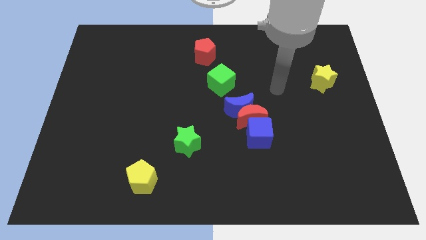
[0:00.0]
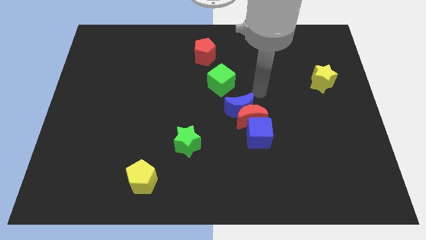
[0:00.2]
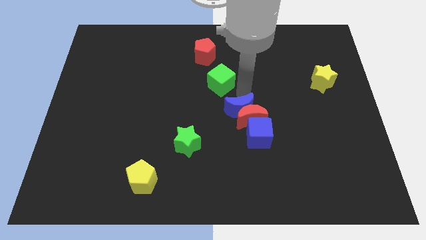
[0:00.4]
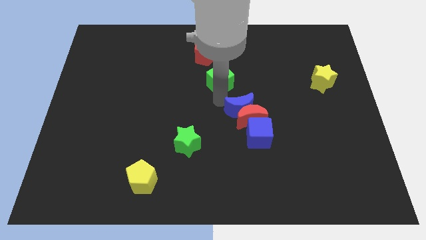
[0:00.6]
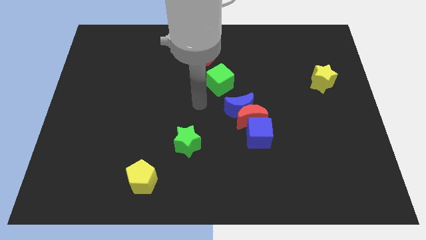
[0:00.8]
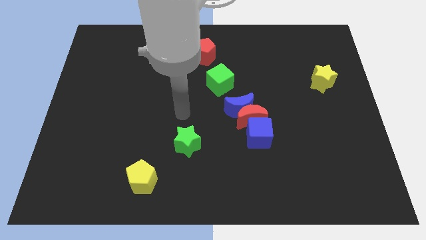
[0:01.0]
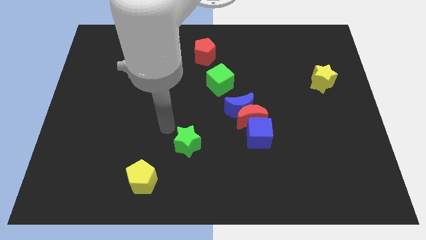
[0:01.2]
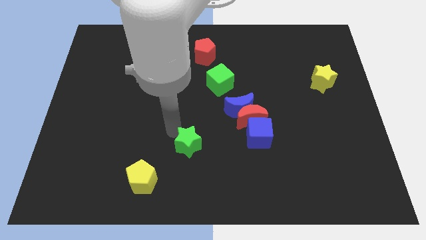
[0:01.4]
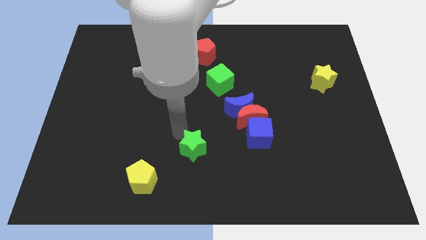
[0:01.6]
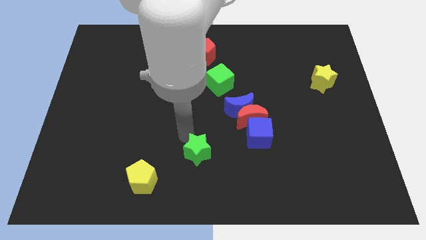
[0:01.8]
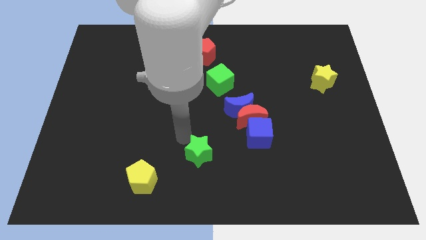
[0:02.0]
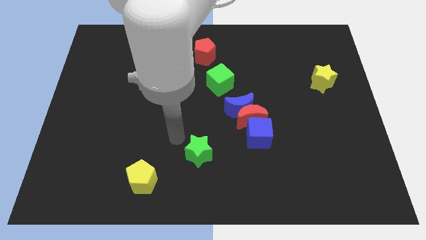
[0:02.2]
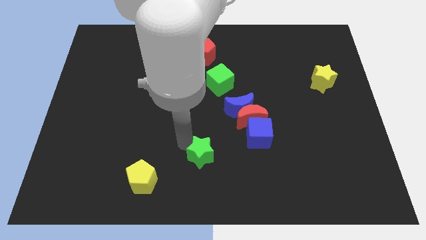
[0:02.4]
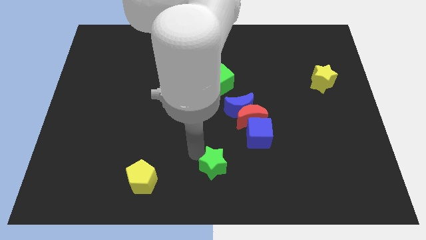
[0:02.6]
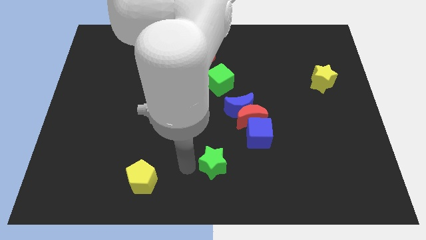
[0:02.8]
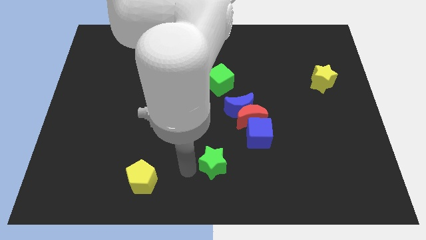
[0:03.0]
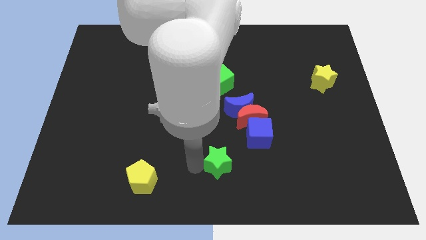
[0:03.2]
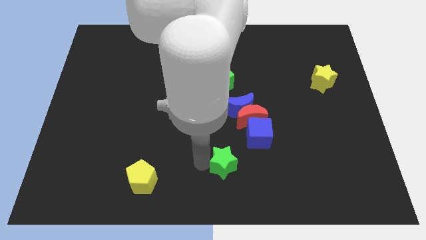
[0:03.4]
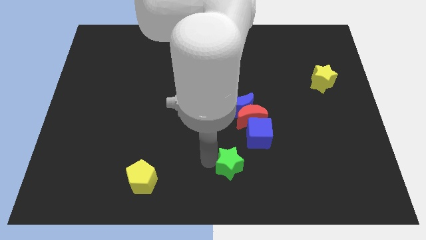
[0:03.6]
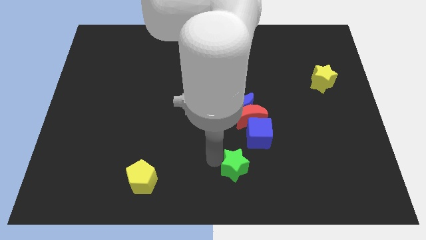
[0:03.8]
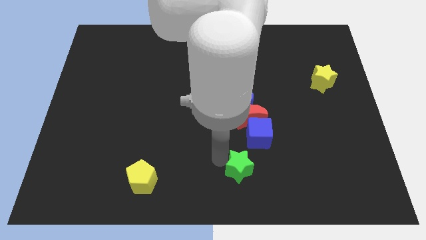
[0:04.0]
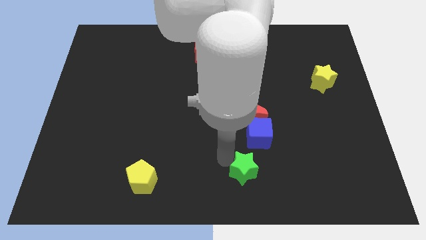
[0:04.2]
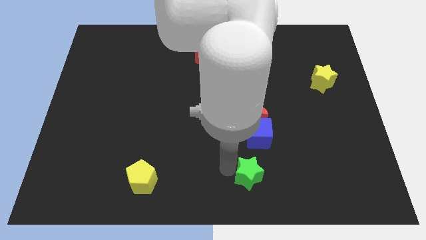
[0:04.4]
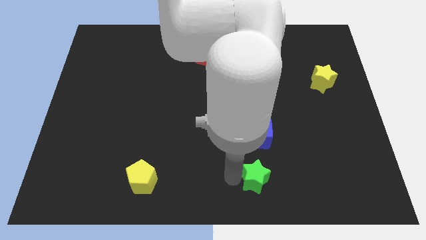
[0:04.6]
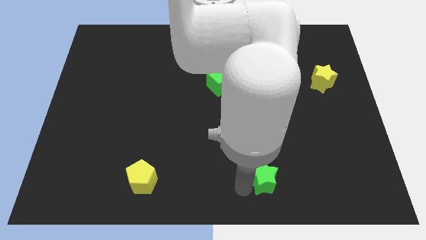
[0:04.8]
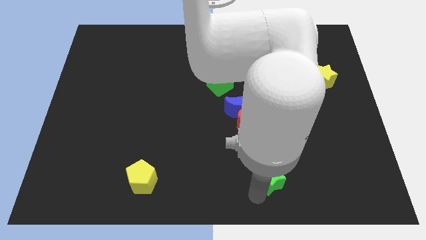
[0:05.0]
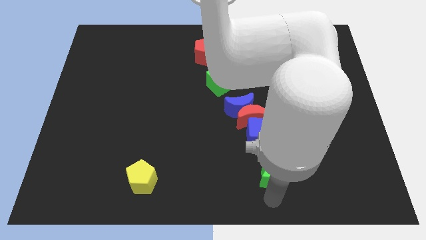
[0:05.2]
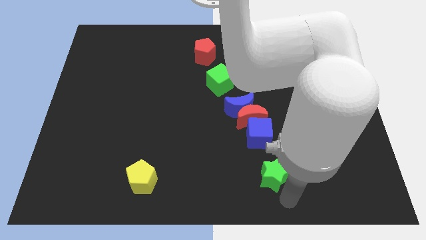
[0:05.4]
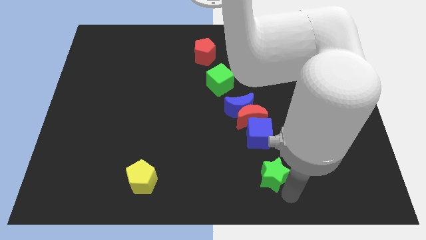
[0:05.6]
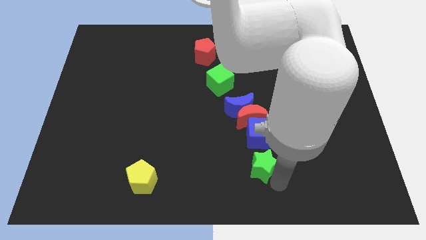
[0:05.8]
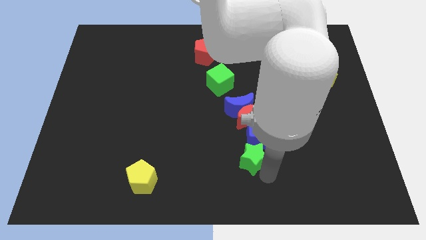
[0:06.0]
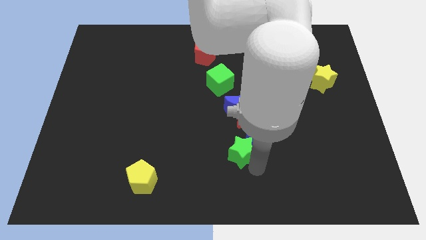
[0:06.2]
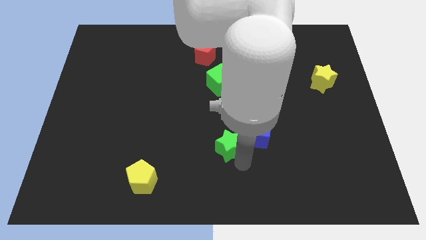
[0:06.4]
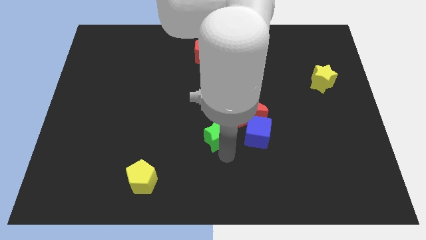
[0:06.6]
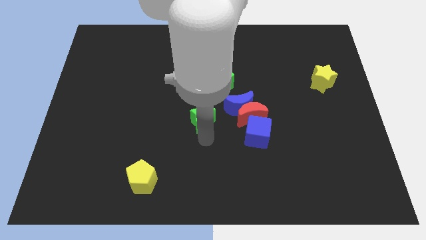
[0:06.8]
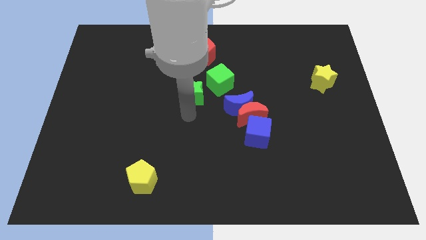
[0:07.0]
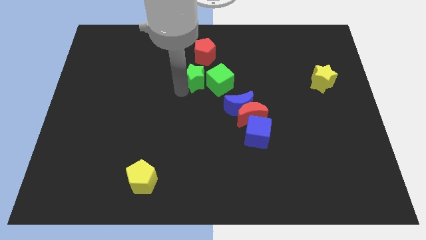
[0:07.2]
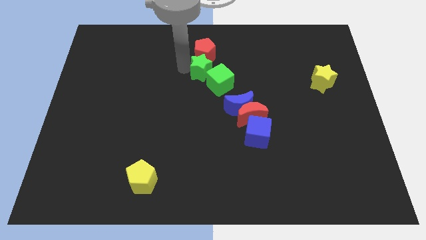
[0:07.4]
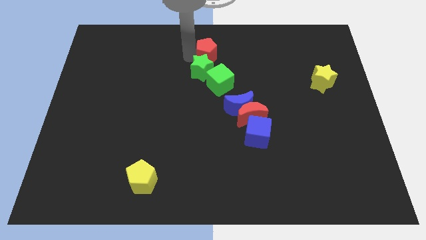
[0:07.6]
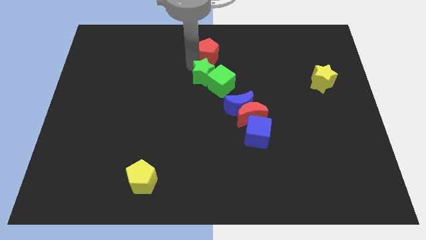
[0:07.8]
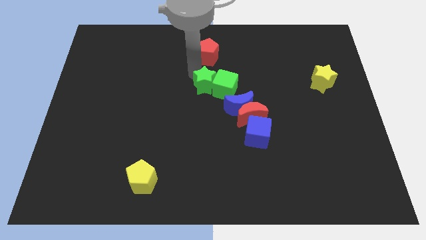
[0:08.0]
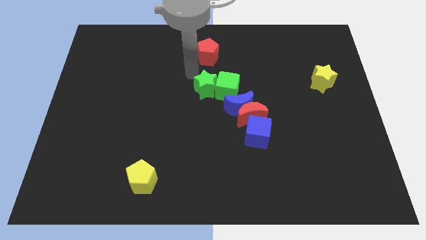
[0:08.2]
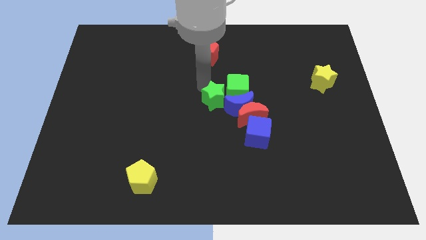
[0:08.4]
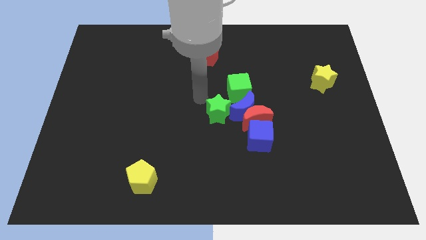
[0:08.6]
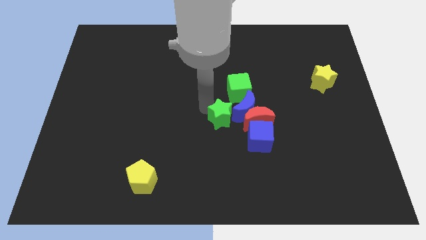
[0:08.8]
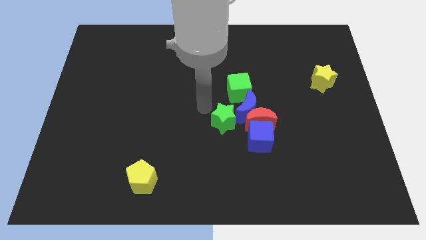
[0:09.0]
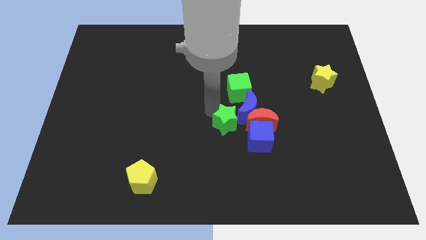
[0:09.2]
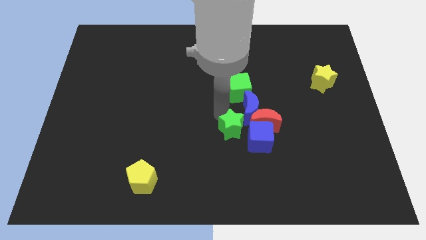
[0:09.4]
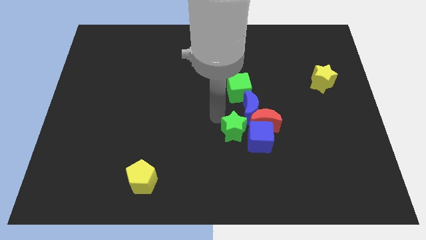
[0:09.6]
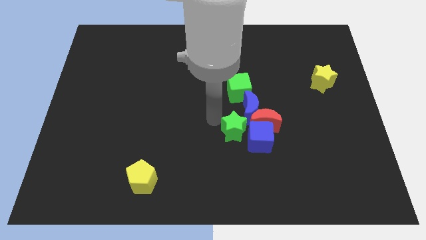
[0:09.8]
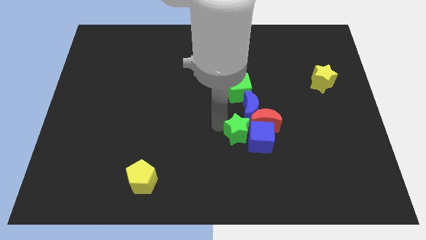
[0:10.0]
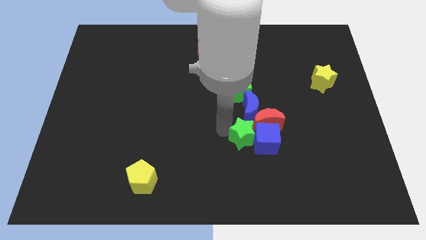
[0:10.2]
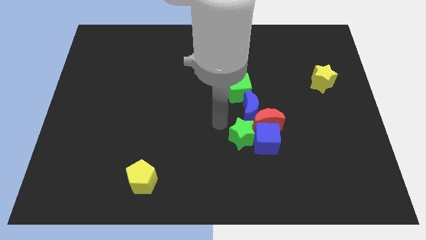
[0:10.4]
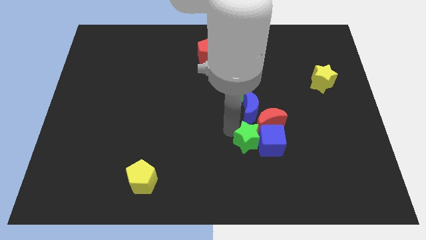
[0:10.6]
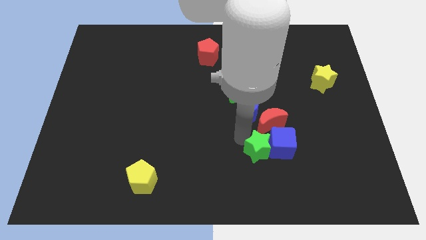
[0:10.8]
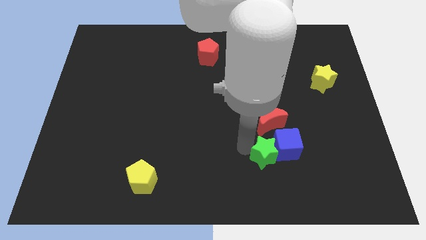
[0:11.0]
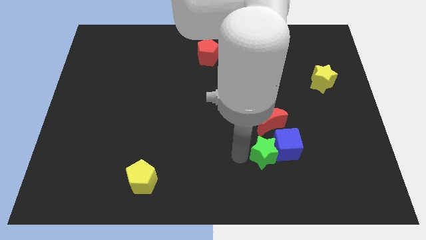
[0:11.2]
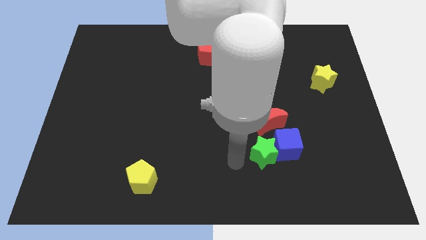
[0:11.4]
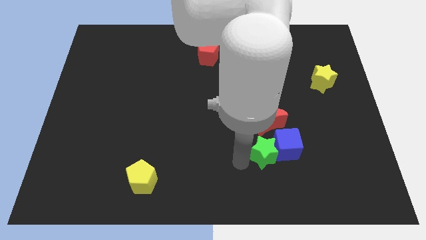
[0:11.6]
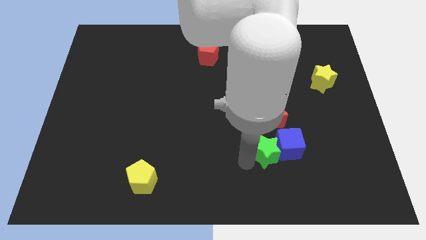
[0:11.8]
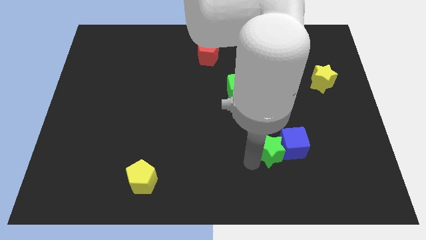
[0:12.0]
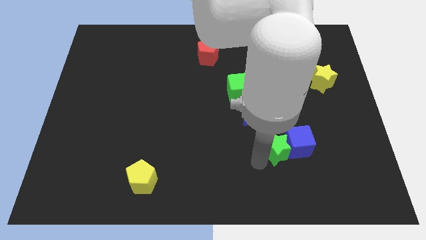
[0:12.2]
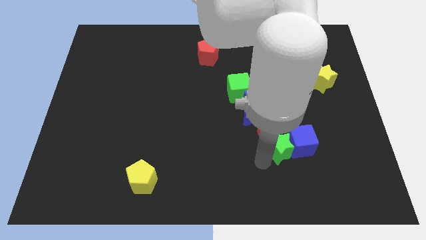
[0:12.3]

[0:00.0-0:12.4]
move the green star to the right

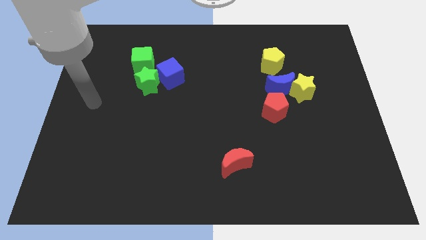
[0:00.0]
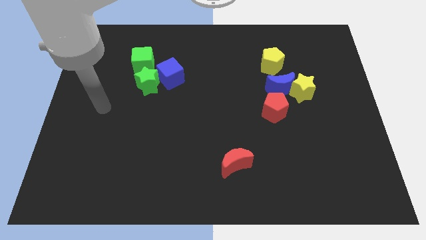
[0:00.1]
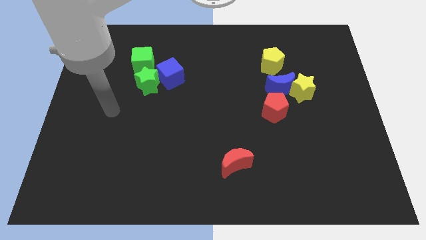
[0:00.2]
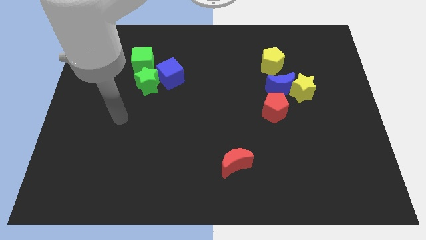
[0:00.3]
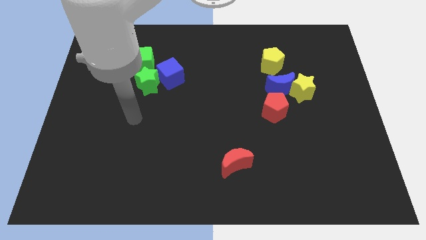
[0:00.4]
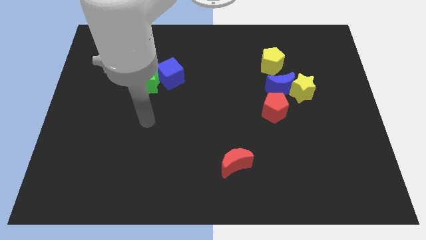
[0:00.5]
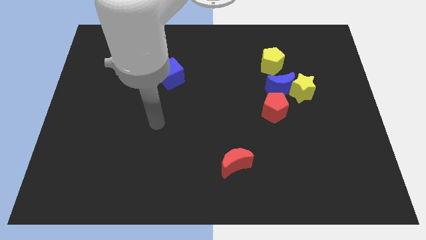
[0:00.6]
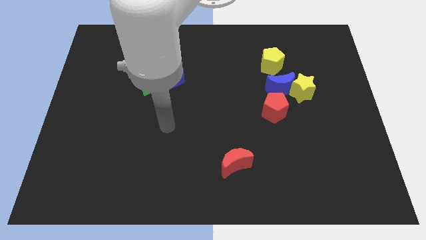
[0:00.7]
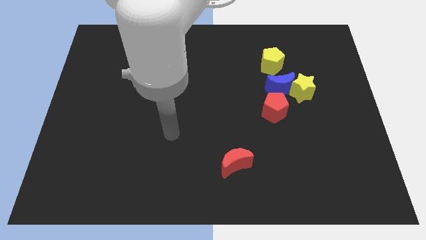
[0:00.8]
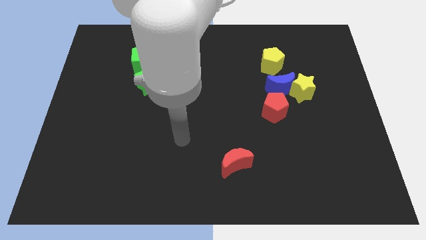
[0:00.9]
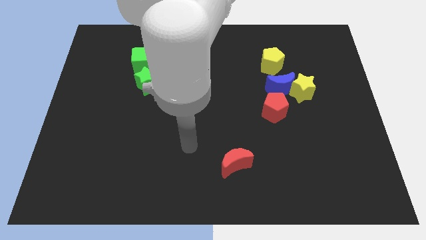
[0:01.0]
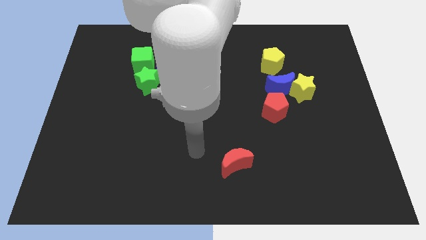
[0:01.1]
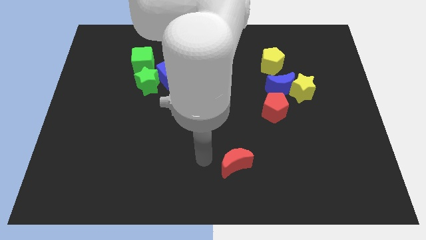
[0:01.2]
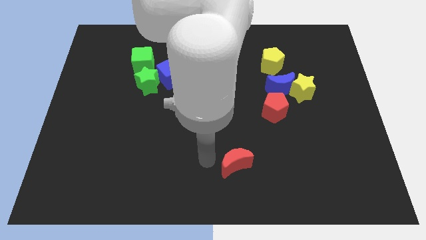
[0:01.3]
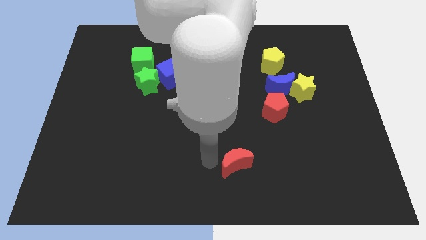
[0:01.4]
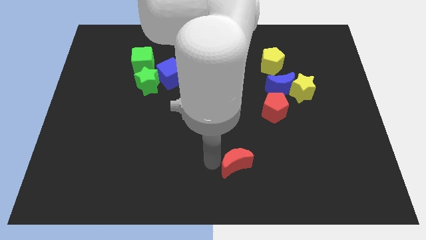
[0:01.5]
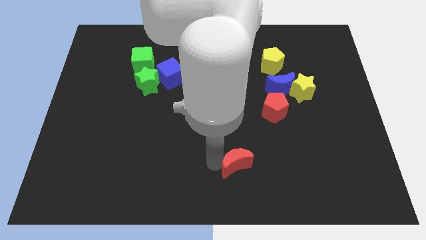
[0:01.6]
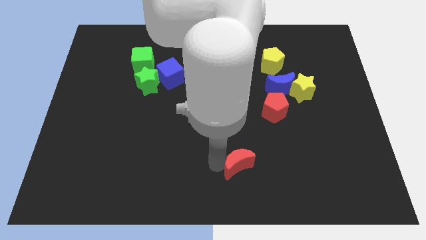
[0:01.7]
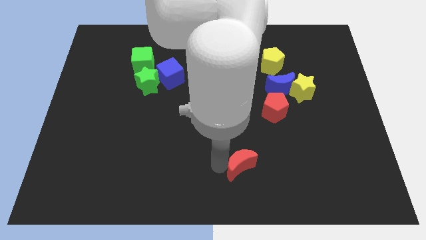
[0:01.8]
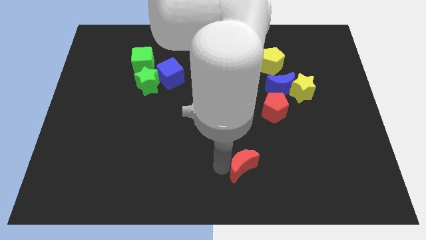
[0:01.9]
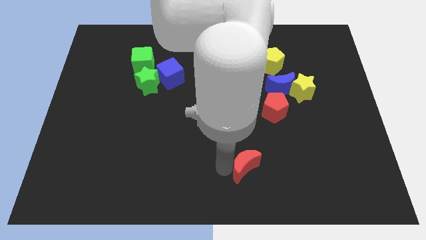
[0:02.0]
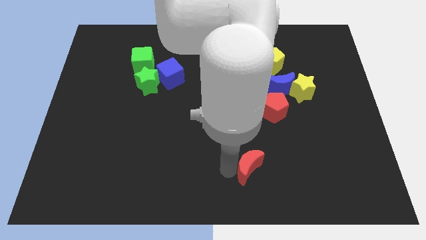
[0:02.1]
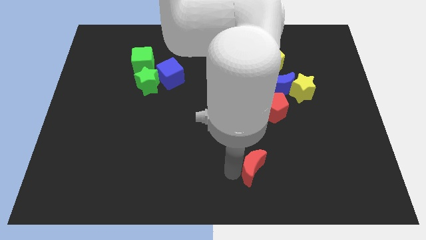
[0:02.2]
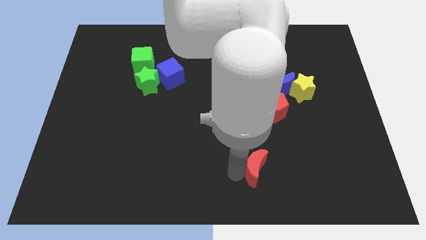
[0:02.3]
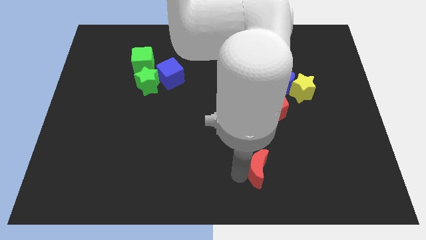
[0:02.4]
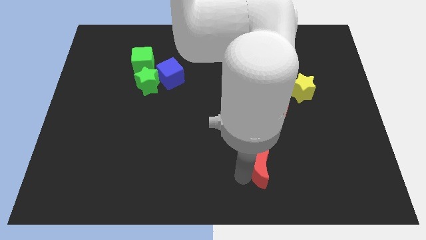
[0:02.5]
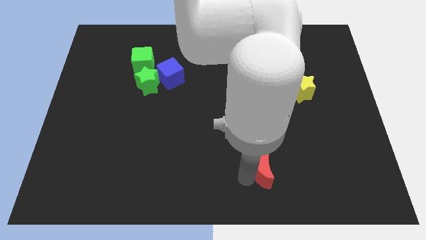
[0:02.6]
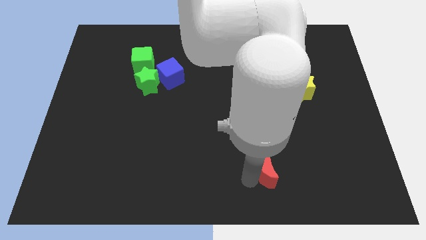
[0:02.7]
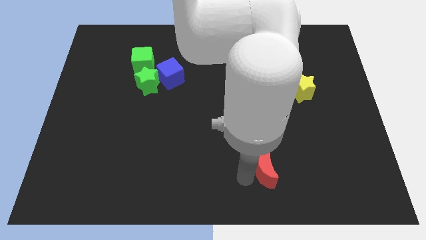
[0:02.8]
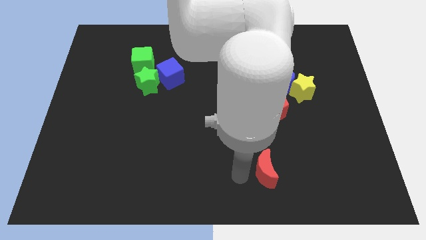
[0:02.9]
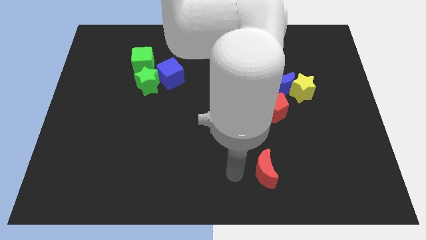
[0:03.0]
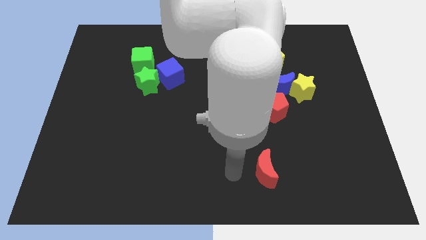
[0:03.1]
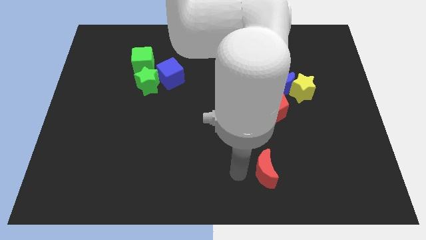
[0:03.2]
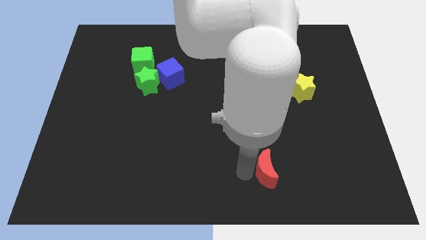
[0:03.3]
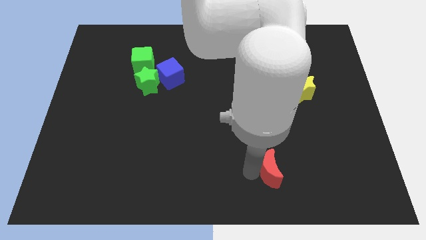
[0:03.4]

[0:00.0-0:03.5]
push the red moon a bit to the right
